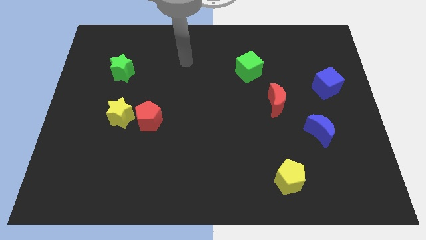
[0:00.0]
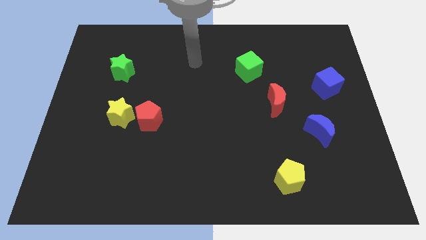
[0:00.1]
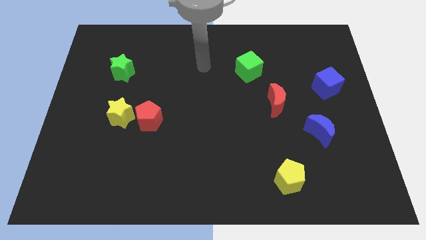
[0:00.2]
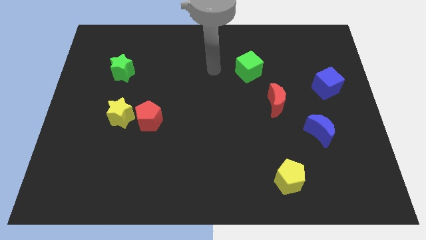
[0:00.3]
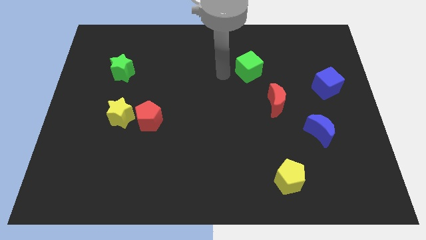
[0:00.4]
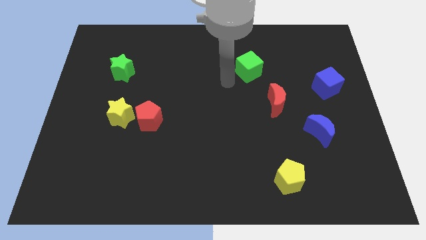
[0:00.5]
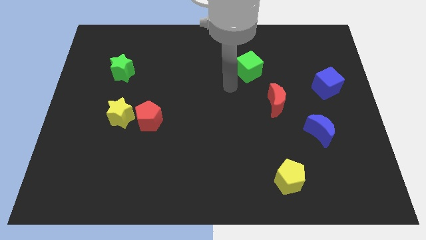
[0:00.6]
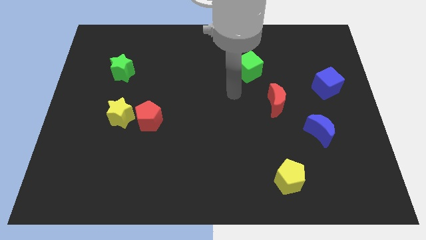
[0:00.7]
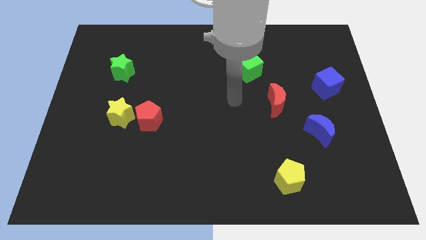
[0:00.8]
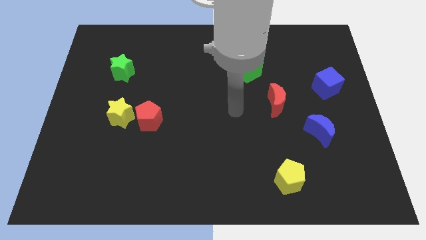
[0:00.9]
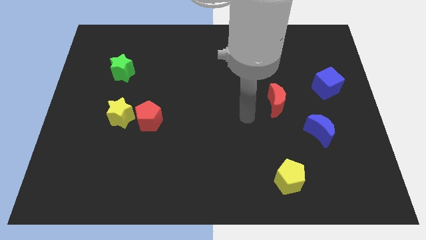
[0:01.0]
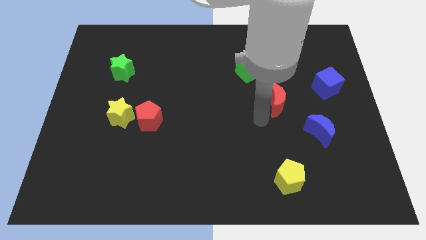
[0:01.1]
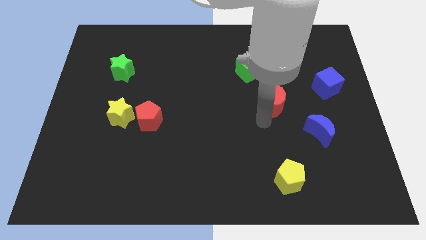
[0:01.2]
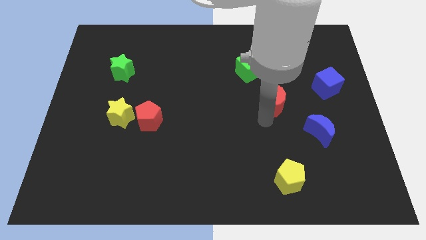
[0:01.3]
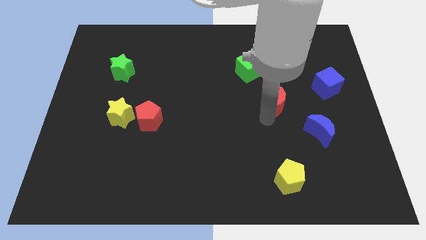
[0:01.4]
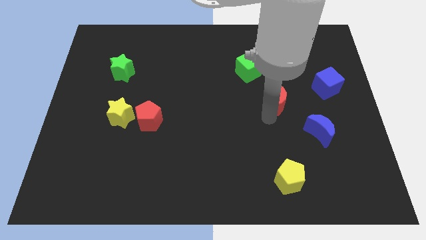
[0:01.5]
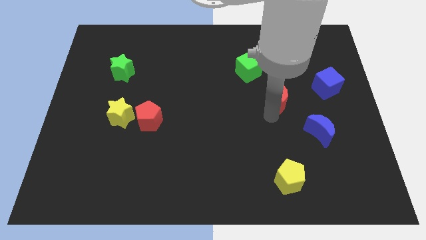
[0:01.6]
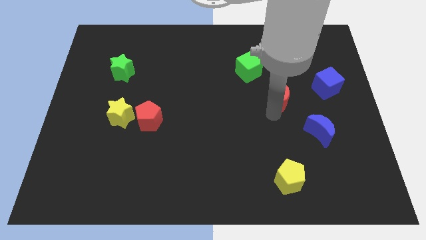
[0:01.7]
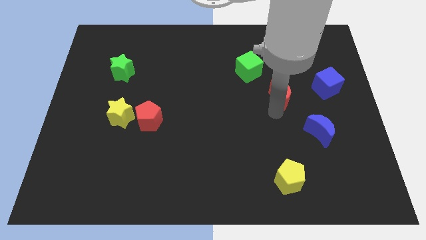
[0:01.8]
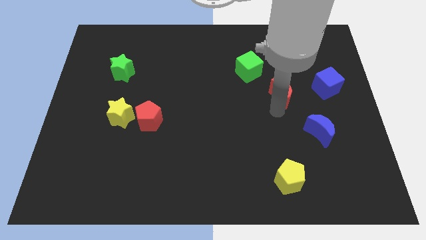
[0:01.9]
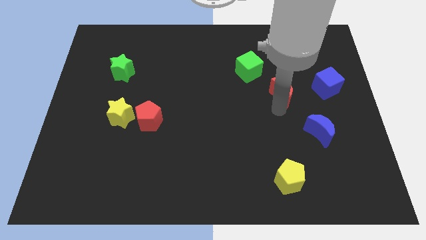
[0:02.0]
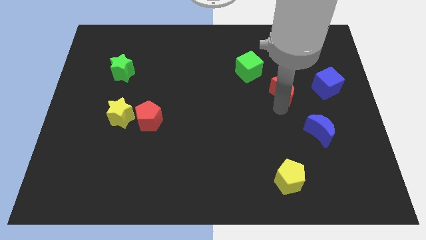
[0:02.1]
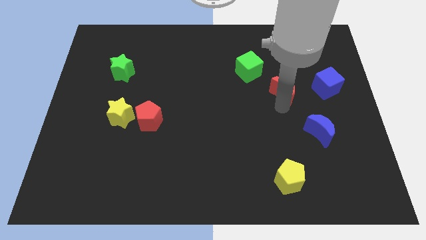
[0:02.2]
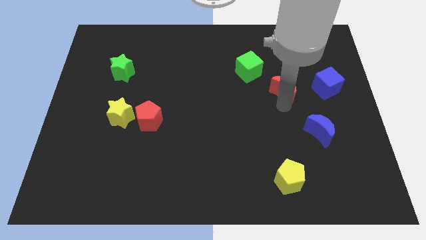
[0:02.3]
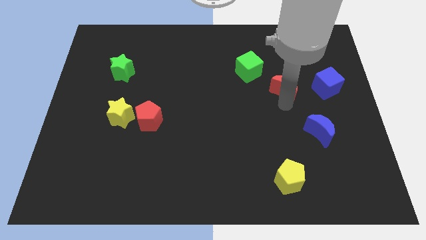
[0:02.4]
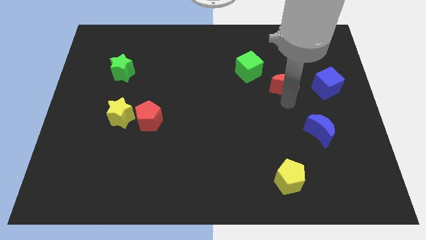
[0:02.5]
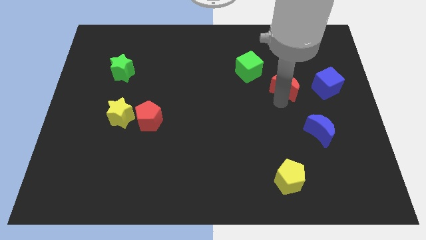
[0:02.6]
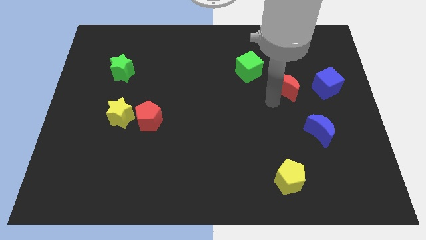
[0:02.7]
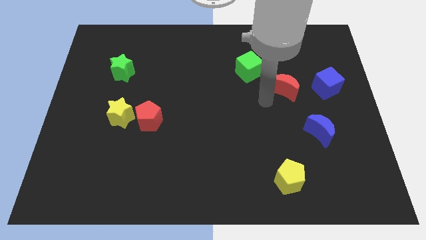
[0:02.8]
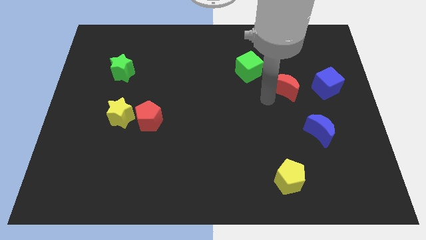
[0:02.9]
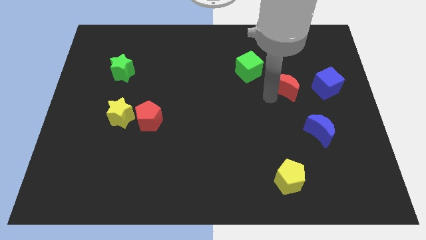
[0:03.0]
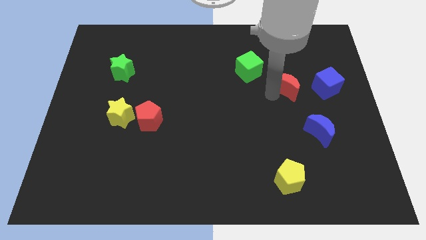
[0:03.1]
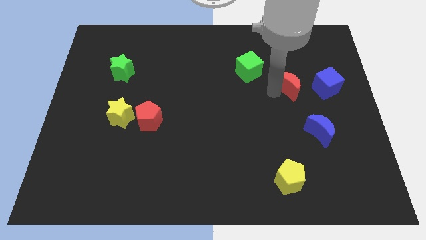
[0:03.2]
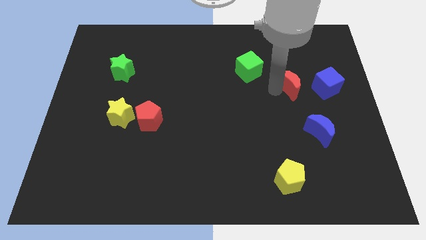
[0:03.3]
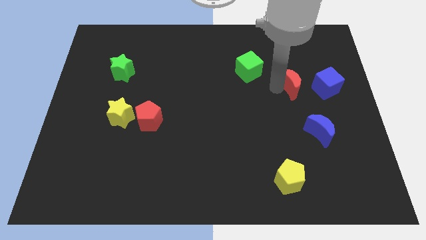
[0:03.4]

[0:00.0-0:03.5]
slide the red moon somewhat up and right

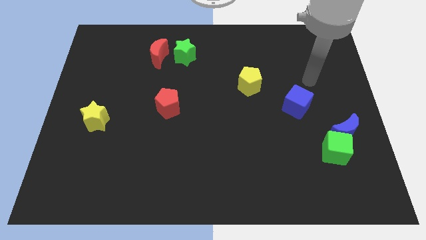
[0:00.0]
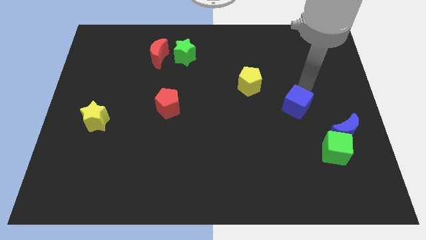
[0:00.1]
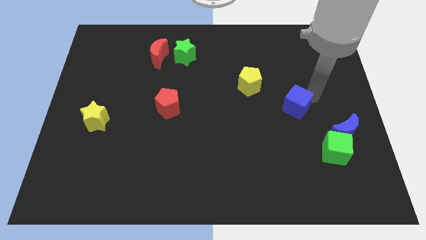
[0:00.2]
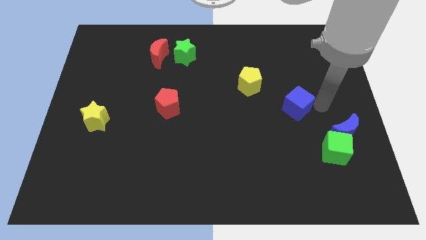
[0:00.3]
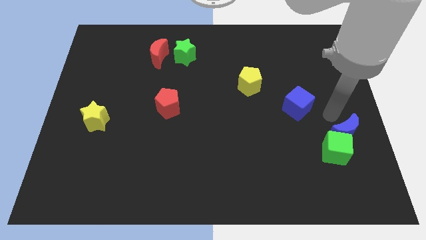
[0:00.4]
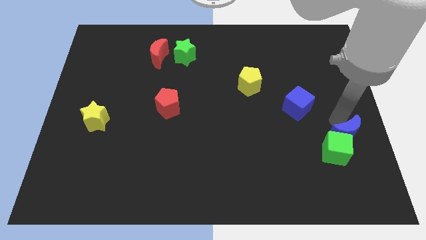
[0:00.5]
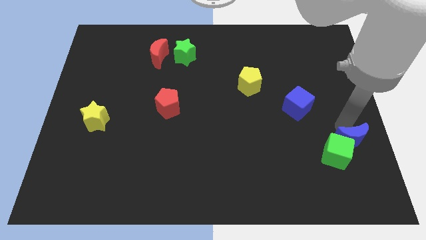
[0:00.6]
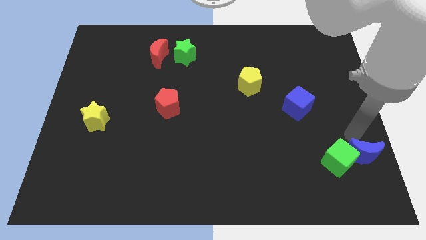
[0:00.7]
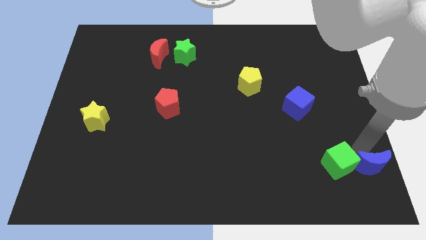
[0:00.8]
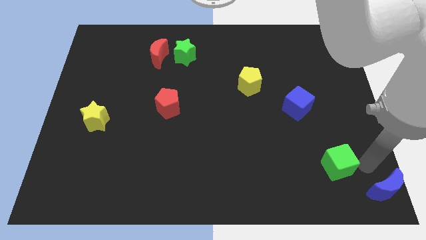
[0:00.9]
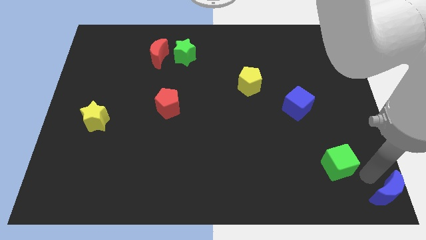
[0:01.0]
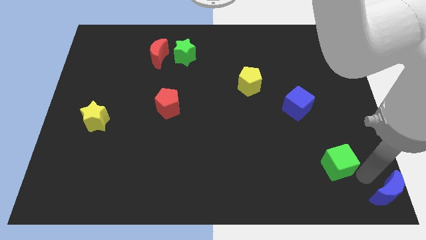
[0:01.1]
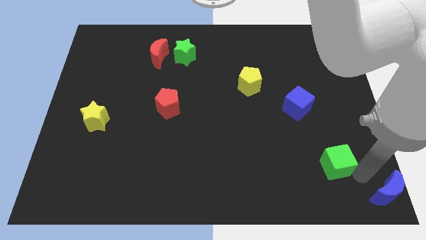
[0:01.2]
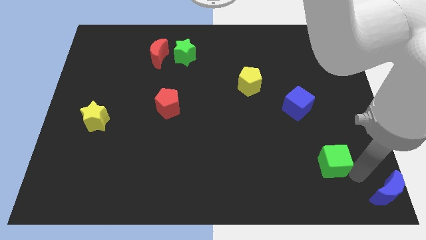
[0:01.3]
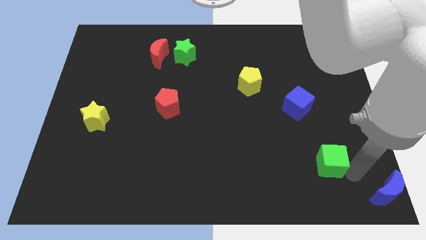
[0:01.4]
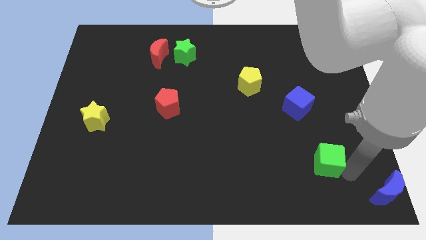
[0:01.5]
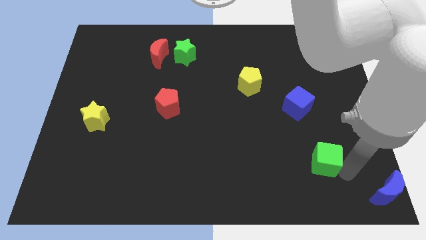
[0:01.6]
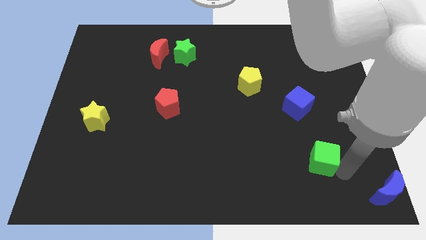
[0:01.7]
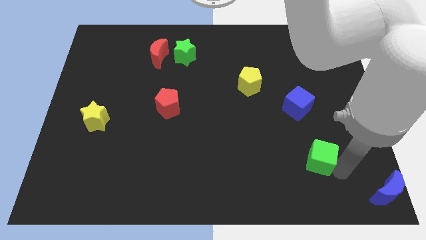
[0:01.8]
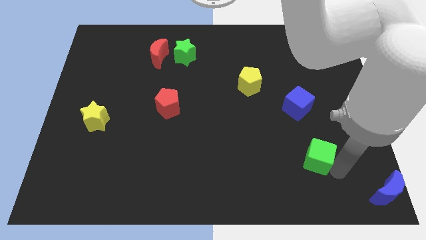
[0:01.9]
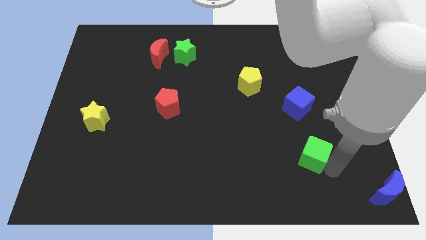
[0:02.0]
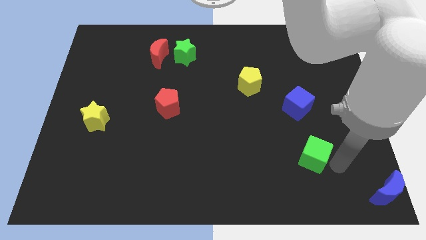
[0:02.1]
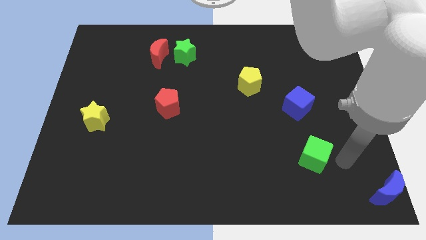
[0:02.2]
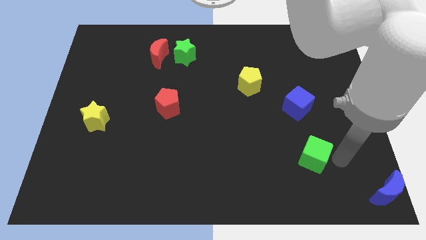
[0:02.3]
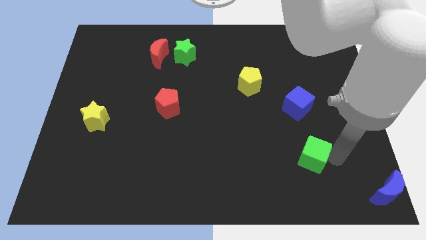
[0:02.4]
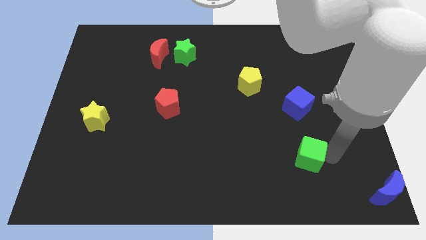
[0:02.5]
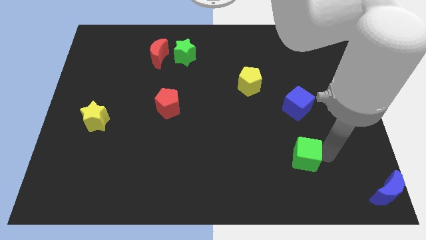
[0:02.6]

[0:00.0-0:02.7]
slightly slide the green cube to the left

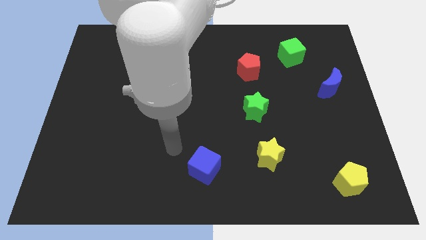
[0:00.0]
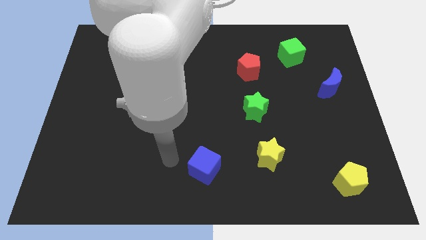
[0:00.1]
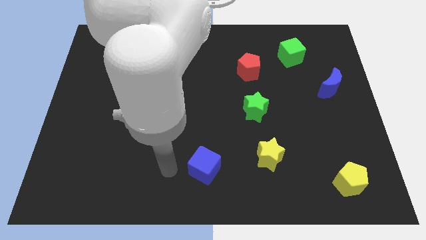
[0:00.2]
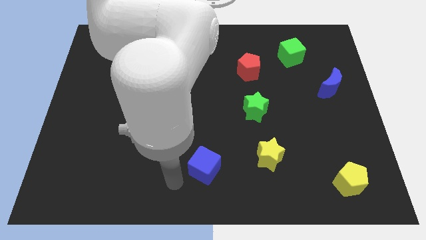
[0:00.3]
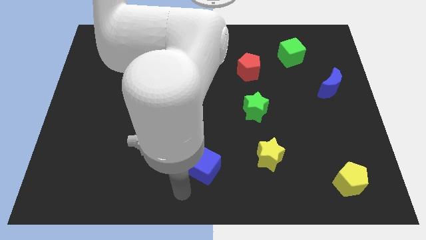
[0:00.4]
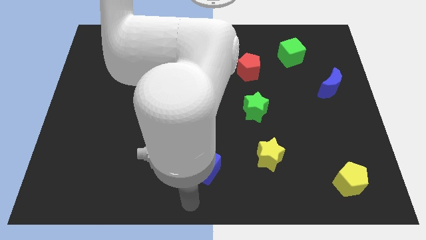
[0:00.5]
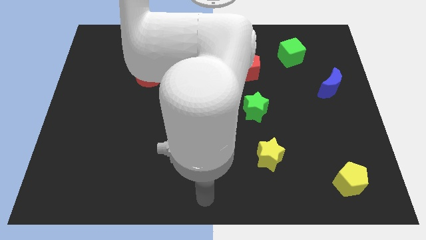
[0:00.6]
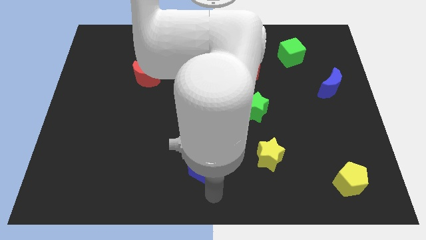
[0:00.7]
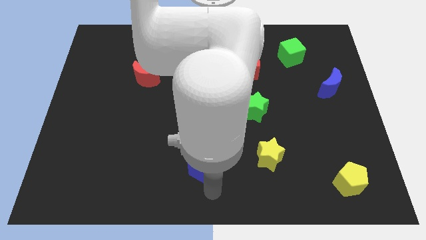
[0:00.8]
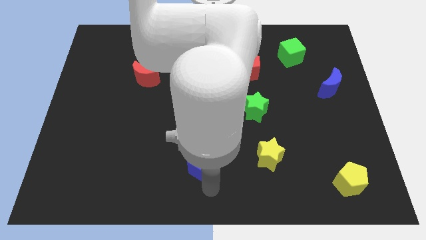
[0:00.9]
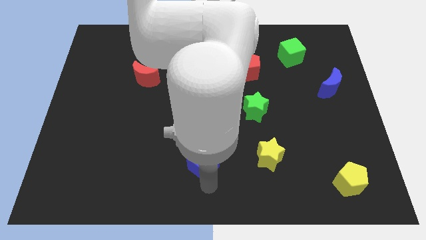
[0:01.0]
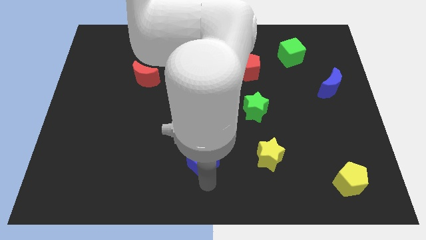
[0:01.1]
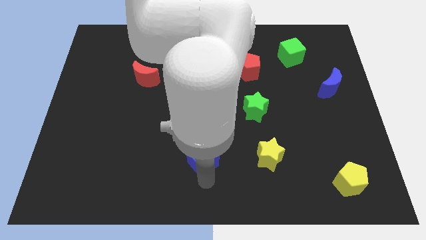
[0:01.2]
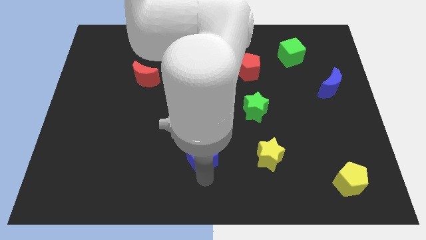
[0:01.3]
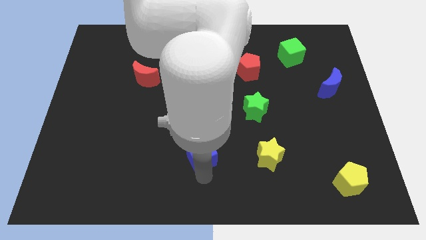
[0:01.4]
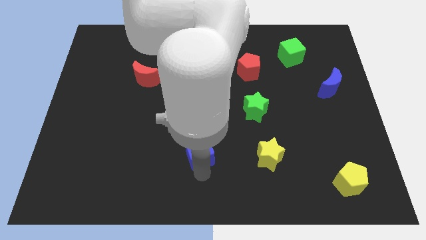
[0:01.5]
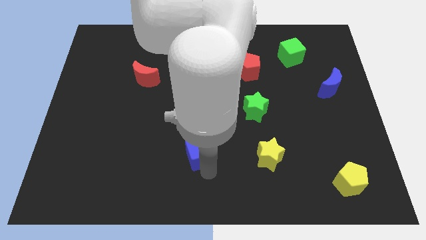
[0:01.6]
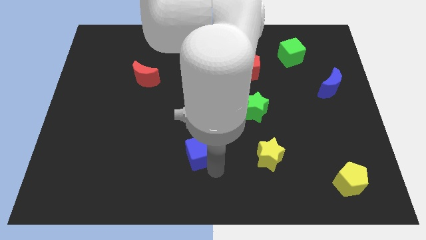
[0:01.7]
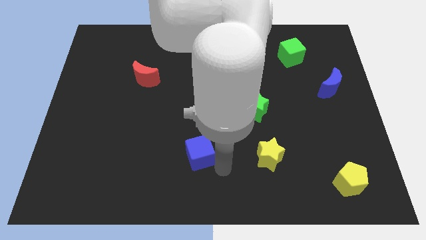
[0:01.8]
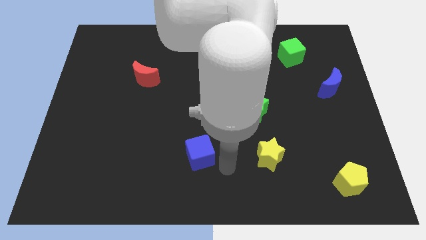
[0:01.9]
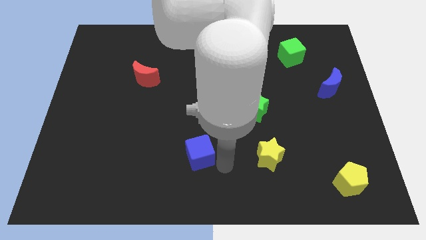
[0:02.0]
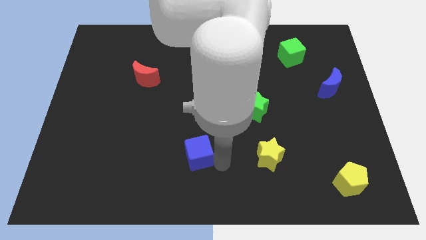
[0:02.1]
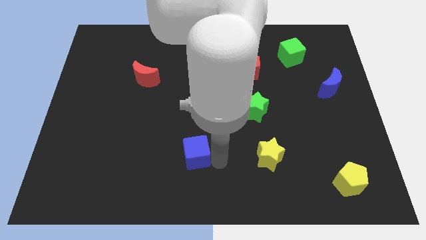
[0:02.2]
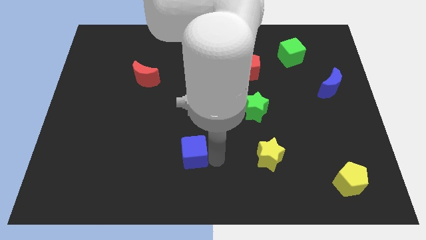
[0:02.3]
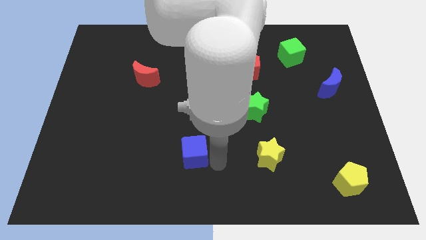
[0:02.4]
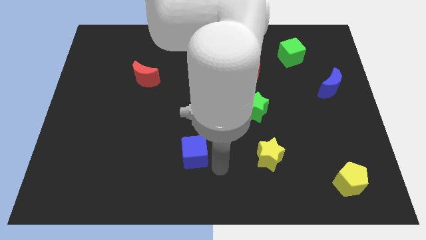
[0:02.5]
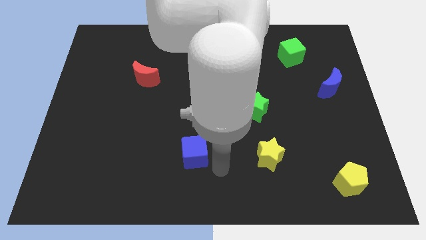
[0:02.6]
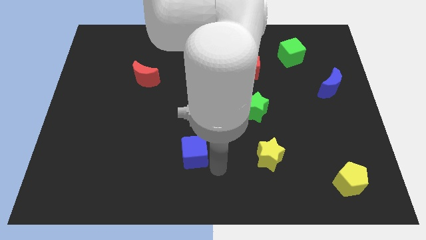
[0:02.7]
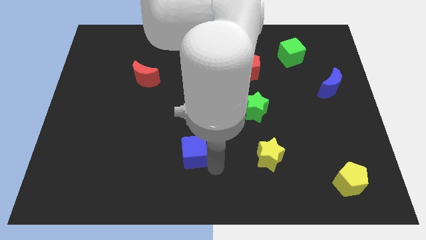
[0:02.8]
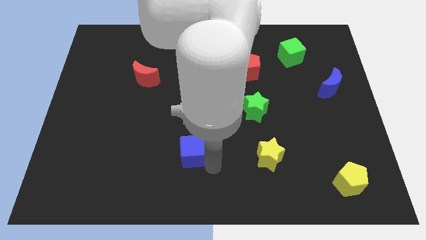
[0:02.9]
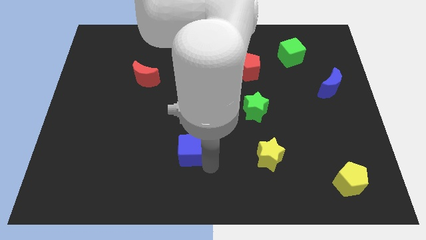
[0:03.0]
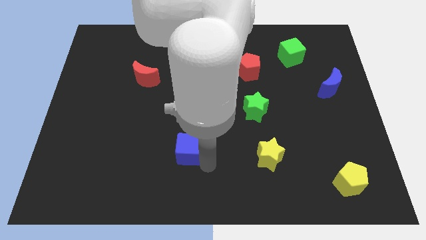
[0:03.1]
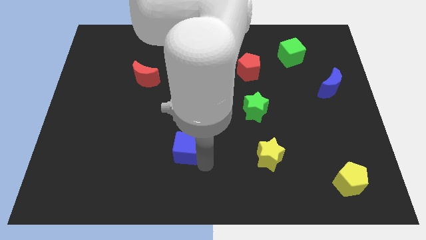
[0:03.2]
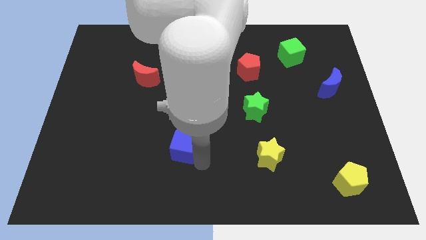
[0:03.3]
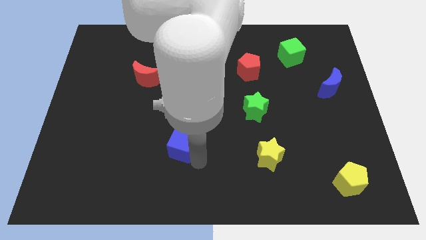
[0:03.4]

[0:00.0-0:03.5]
slightly push the blue cube diagonally up and to the left
